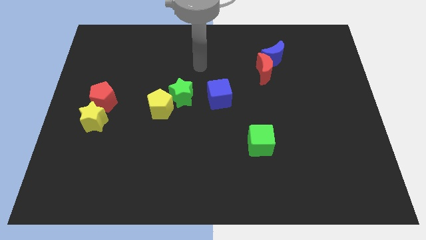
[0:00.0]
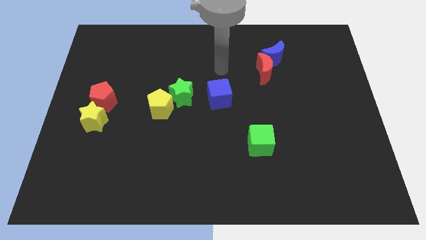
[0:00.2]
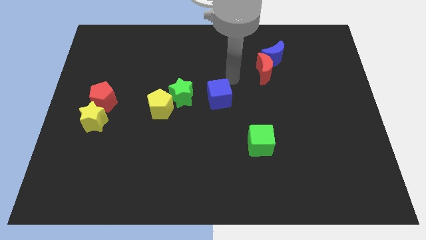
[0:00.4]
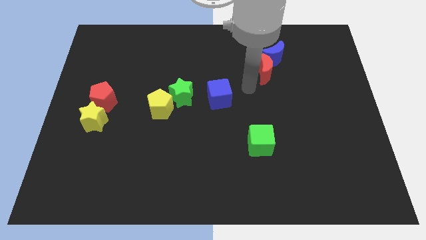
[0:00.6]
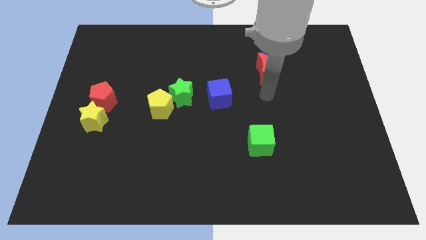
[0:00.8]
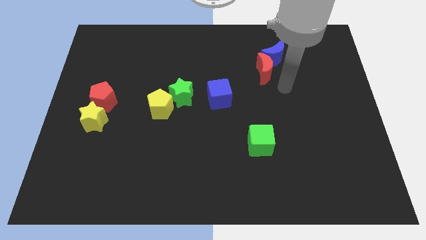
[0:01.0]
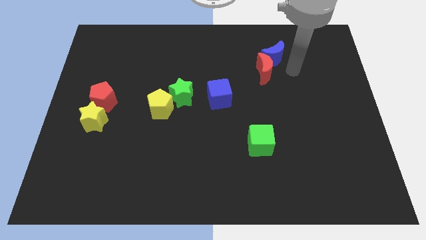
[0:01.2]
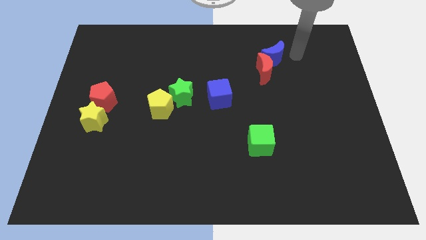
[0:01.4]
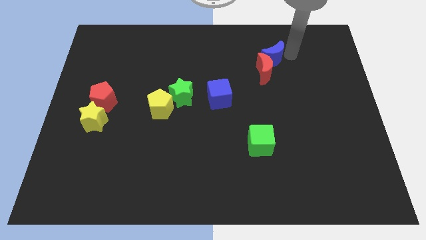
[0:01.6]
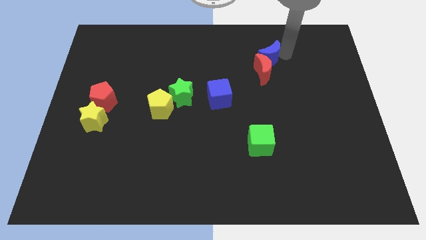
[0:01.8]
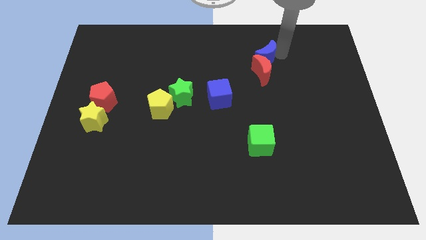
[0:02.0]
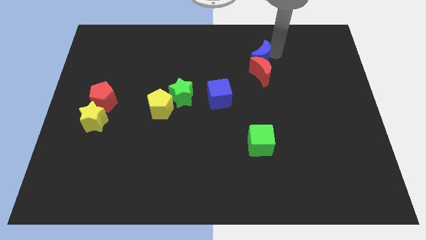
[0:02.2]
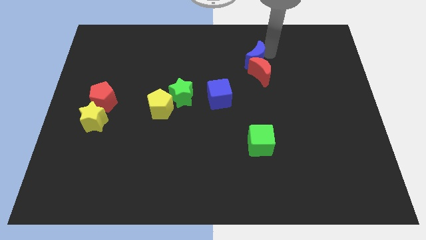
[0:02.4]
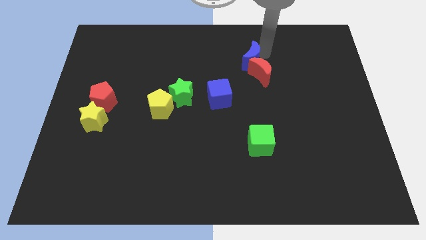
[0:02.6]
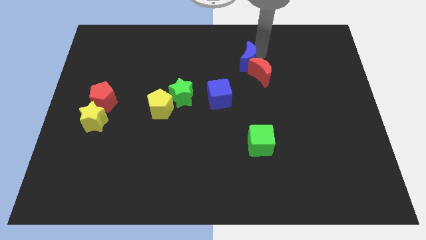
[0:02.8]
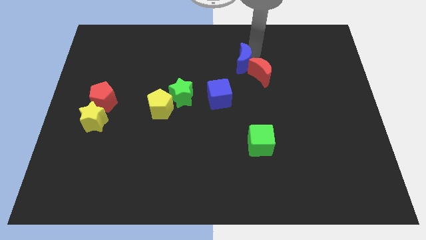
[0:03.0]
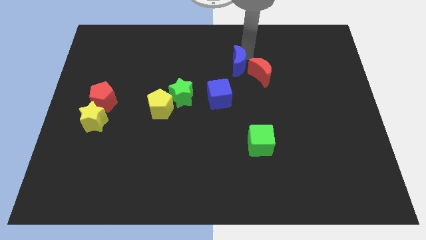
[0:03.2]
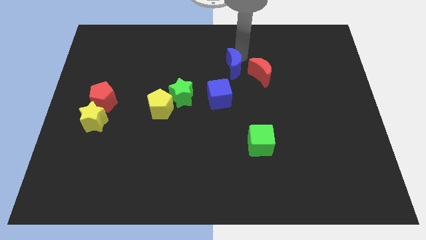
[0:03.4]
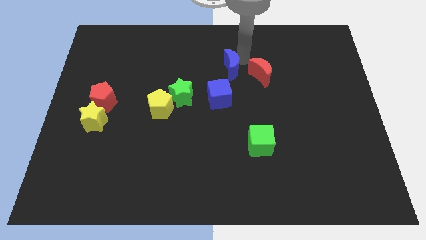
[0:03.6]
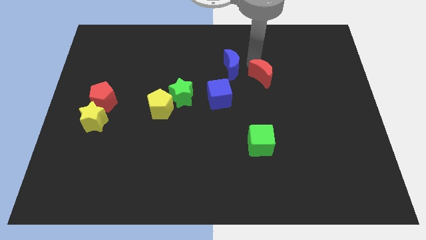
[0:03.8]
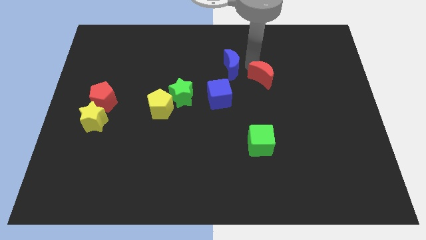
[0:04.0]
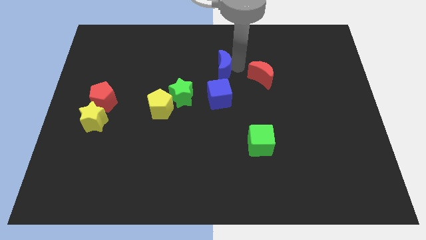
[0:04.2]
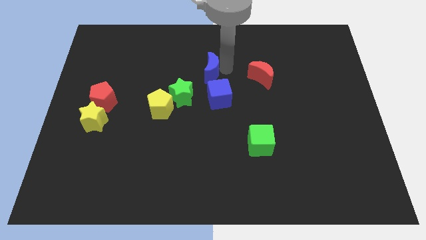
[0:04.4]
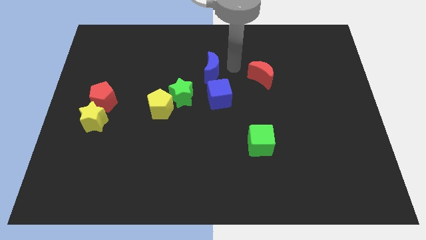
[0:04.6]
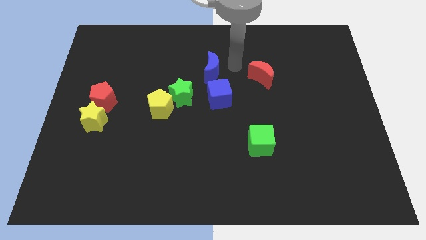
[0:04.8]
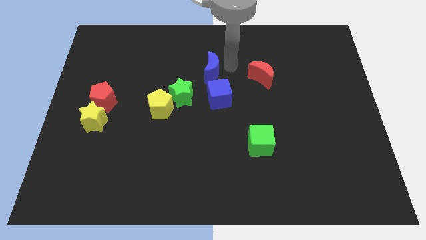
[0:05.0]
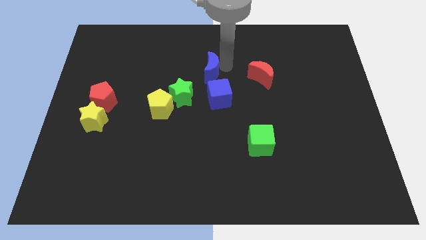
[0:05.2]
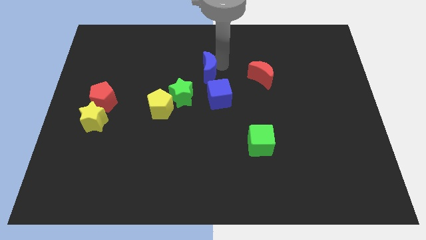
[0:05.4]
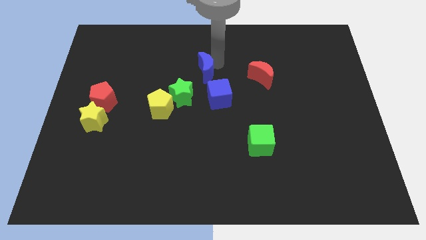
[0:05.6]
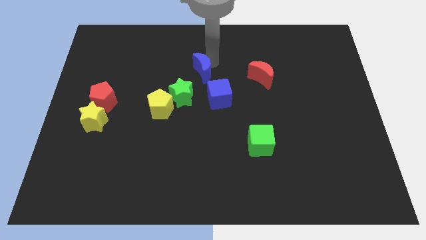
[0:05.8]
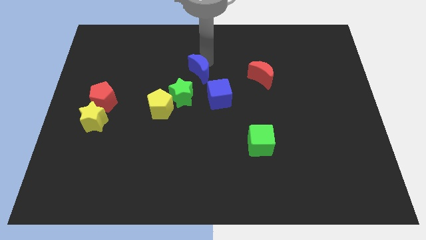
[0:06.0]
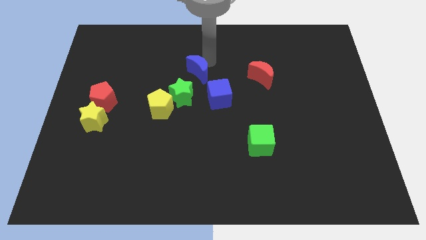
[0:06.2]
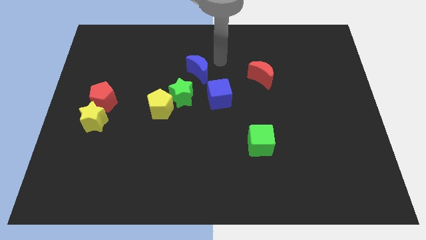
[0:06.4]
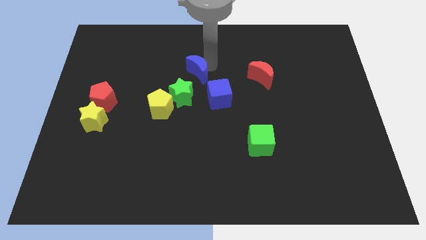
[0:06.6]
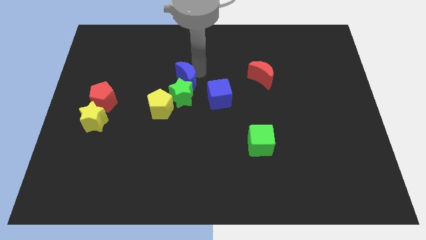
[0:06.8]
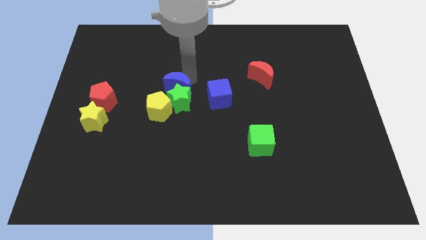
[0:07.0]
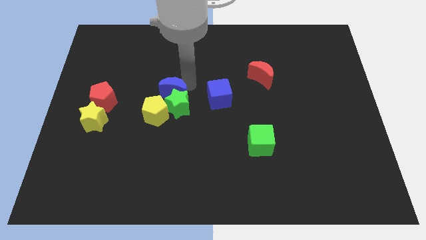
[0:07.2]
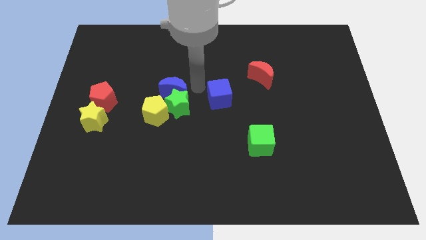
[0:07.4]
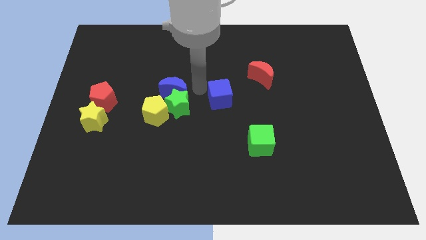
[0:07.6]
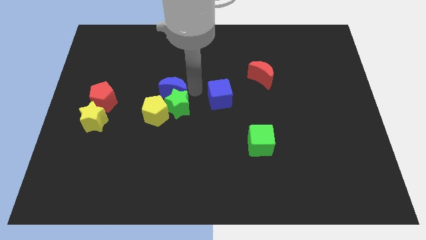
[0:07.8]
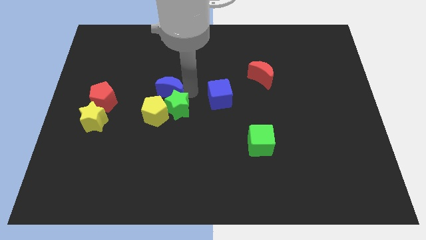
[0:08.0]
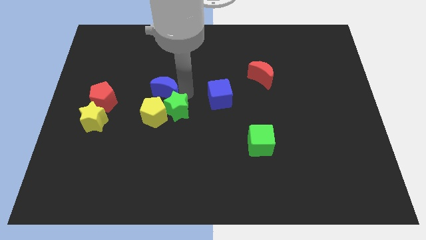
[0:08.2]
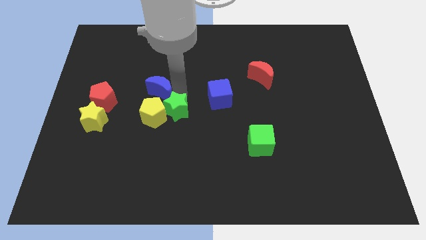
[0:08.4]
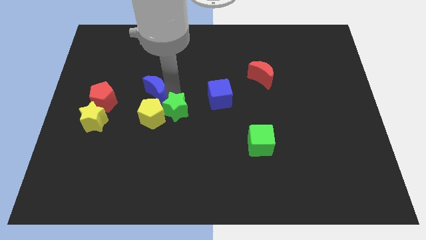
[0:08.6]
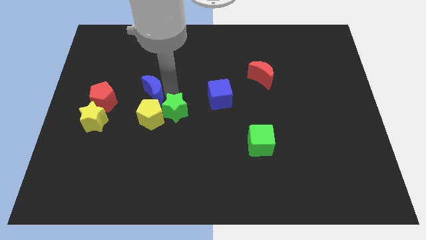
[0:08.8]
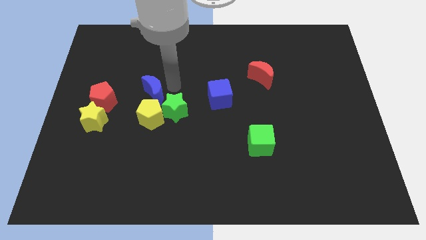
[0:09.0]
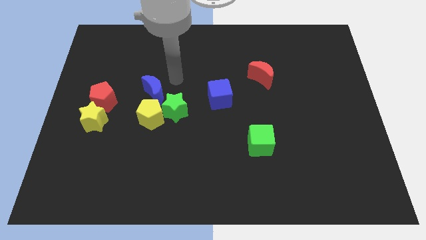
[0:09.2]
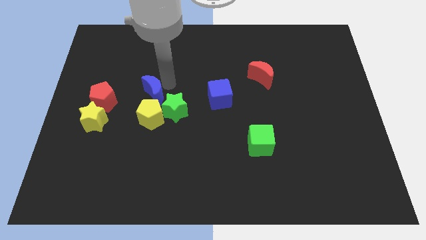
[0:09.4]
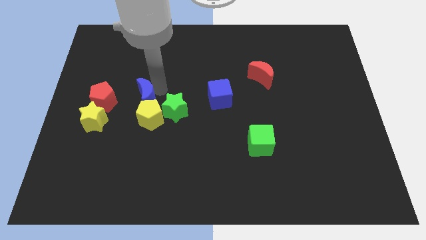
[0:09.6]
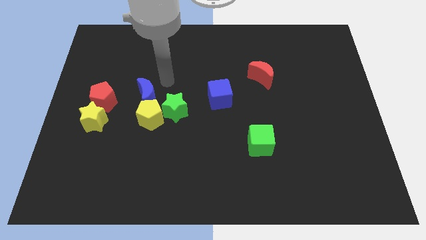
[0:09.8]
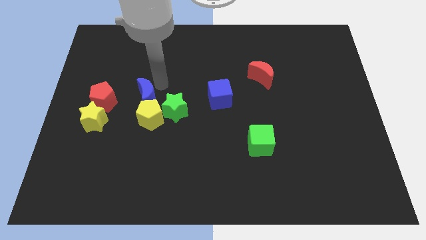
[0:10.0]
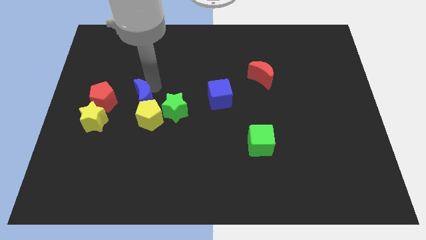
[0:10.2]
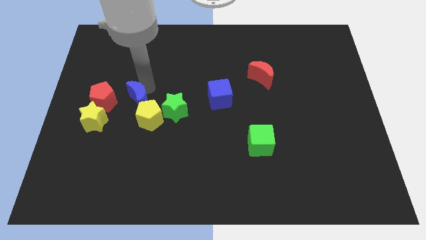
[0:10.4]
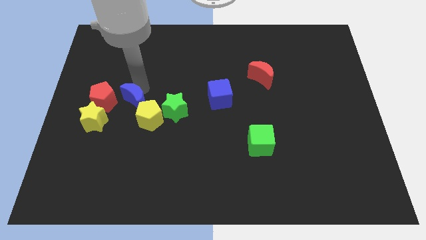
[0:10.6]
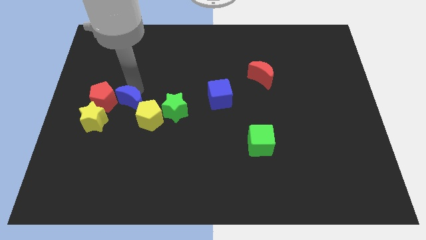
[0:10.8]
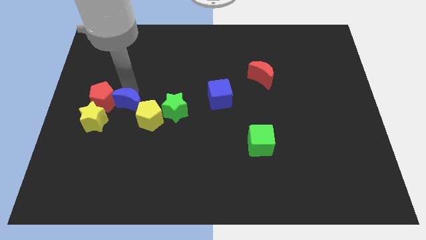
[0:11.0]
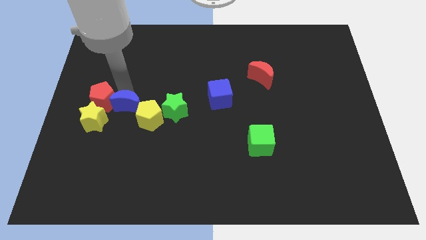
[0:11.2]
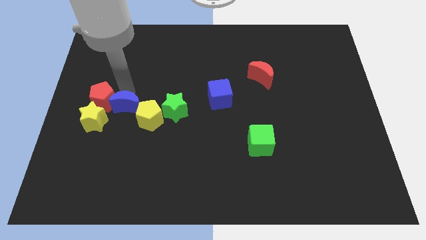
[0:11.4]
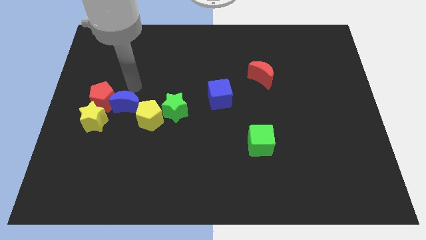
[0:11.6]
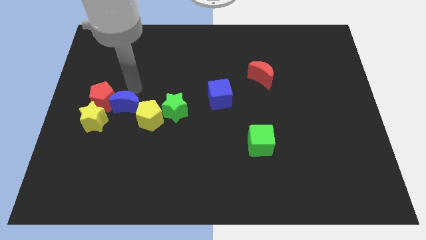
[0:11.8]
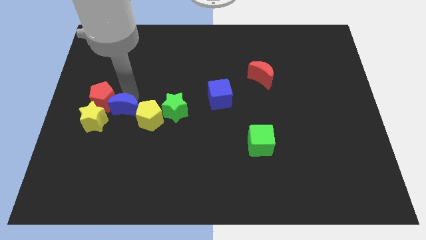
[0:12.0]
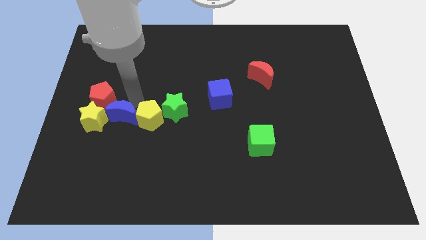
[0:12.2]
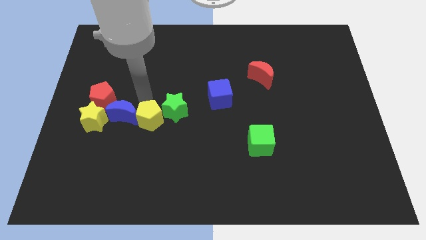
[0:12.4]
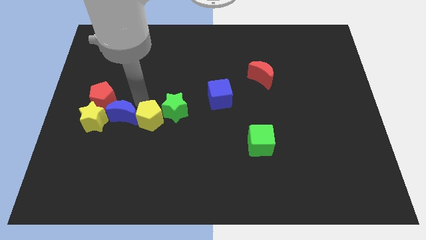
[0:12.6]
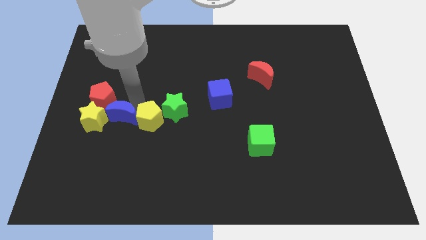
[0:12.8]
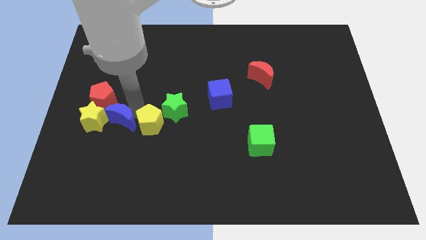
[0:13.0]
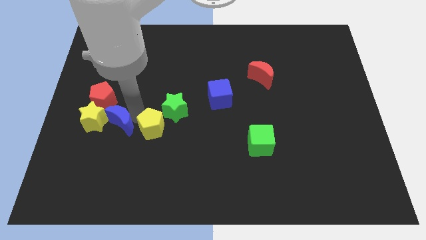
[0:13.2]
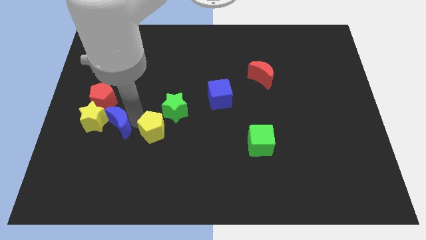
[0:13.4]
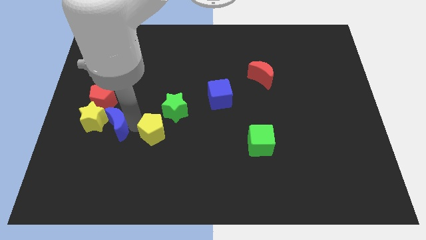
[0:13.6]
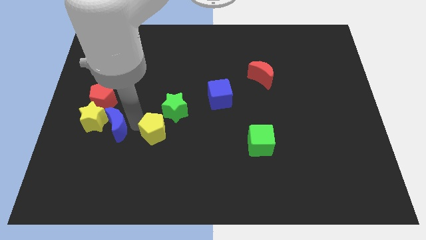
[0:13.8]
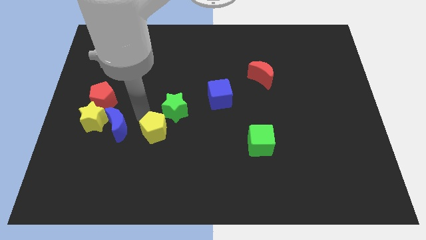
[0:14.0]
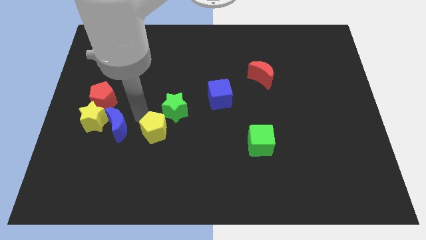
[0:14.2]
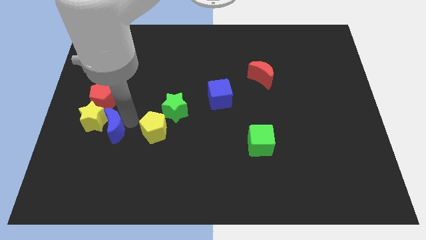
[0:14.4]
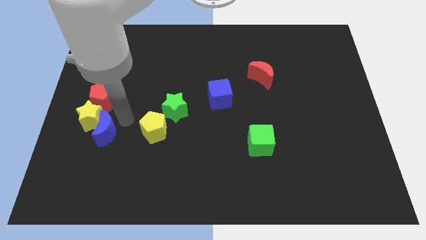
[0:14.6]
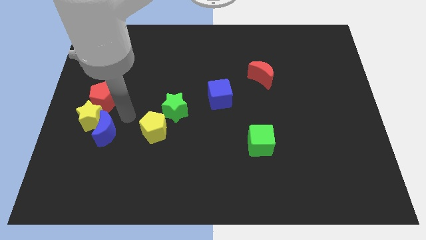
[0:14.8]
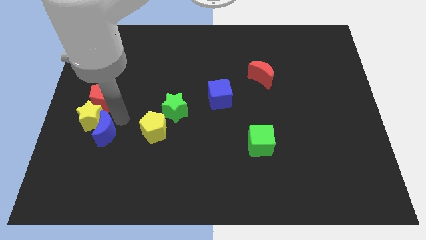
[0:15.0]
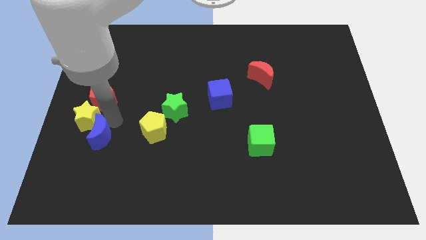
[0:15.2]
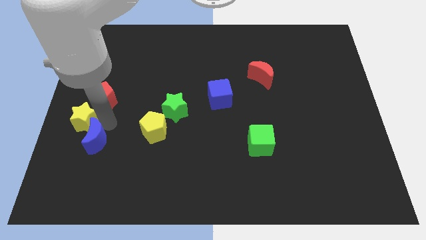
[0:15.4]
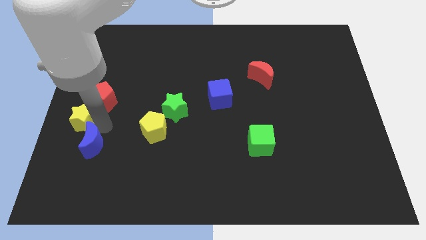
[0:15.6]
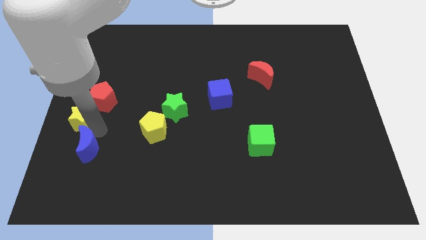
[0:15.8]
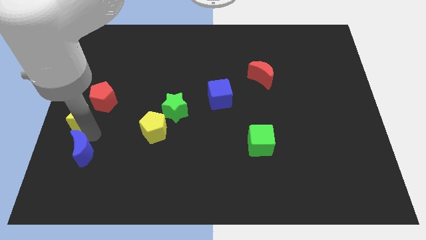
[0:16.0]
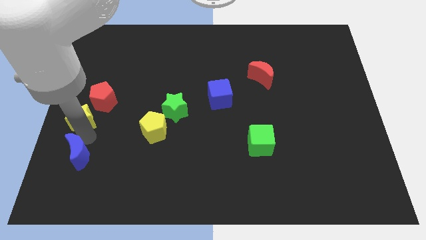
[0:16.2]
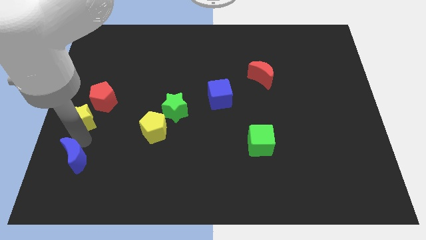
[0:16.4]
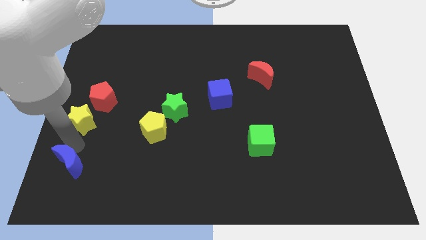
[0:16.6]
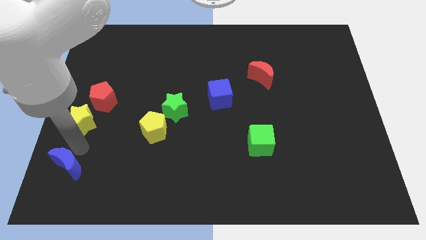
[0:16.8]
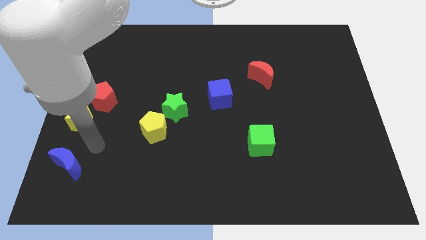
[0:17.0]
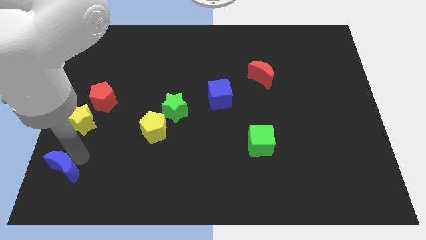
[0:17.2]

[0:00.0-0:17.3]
put the blue moon to the lower left corner
